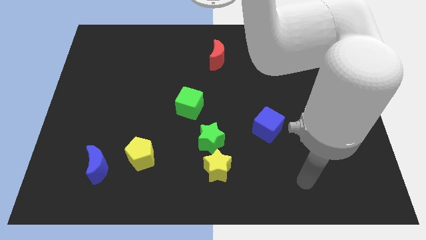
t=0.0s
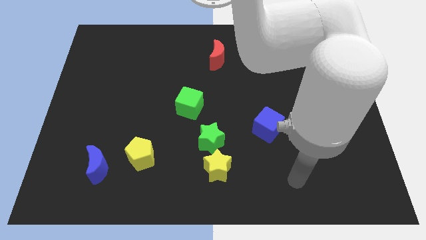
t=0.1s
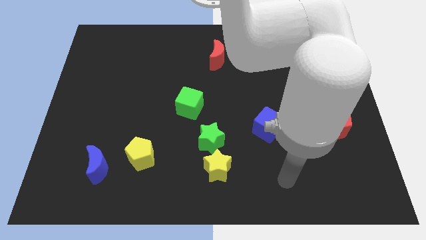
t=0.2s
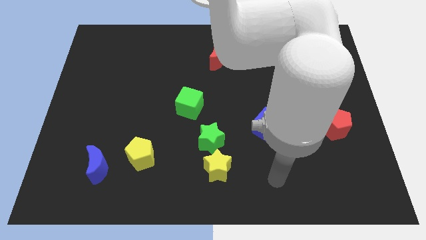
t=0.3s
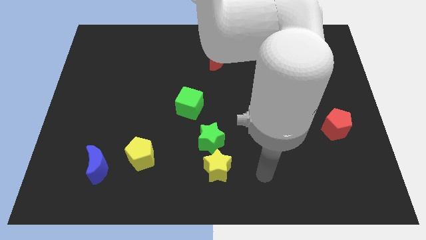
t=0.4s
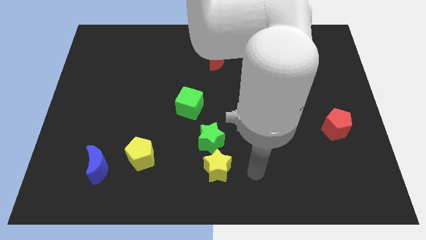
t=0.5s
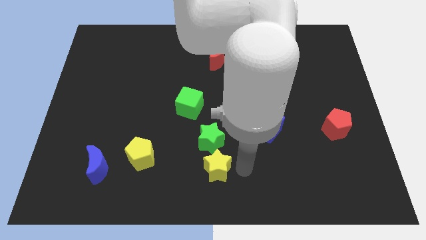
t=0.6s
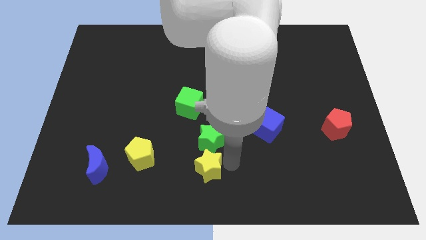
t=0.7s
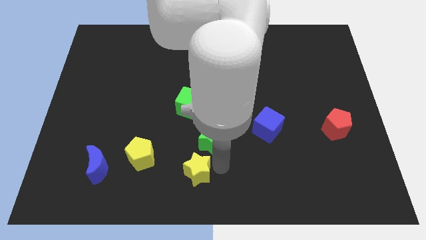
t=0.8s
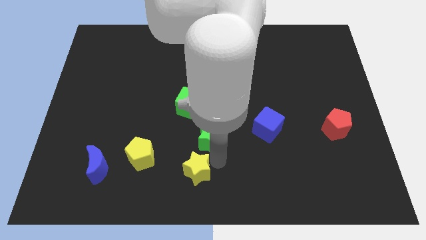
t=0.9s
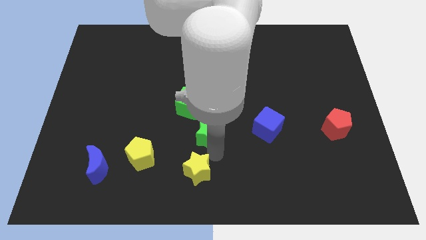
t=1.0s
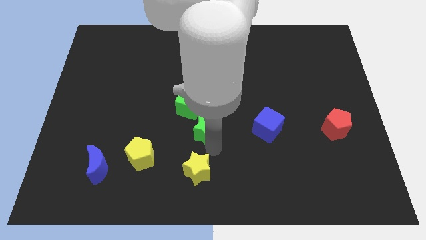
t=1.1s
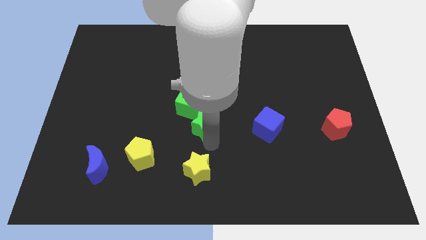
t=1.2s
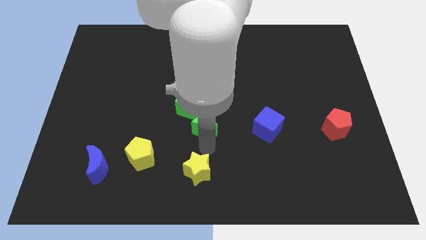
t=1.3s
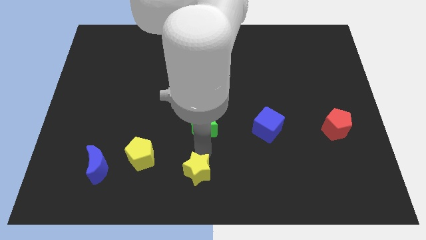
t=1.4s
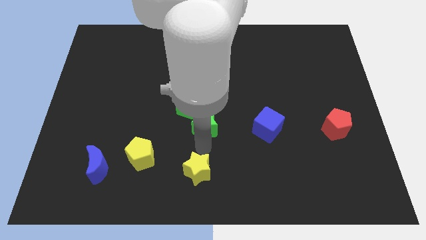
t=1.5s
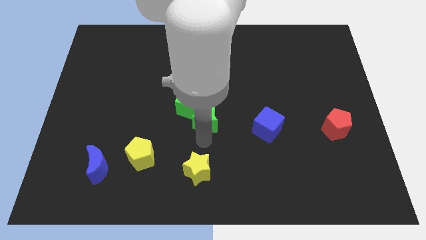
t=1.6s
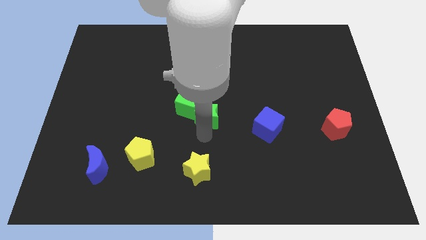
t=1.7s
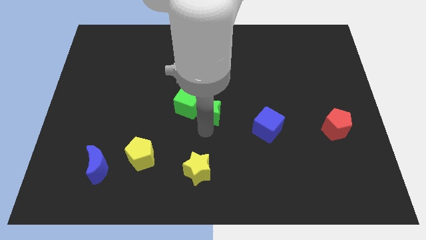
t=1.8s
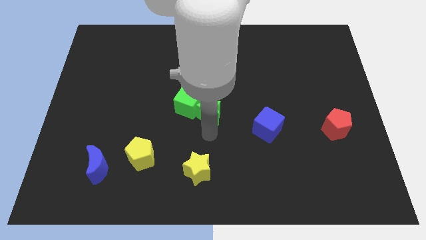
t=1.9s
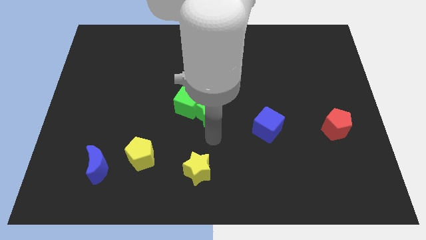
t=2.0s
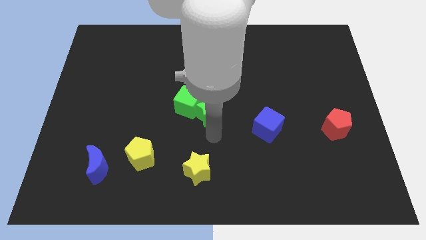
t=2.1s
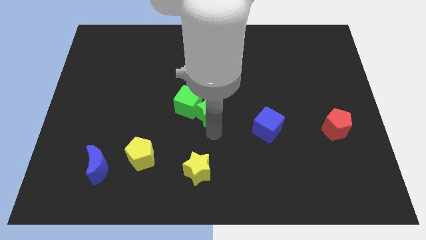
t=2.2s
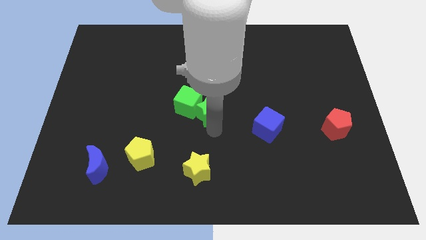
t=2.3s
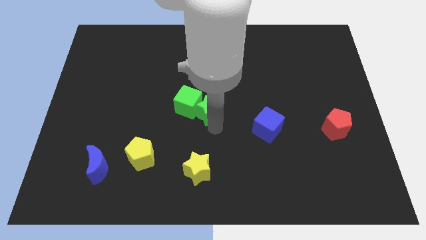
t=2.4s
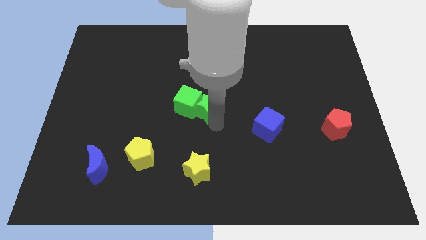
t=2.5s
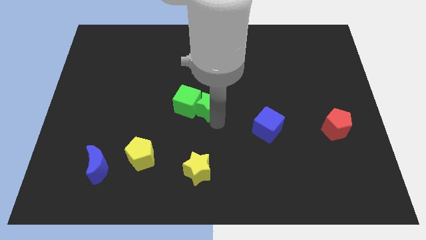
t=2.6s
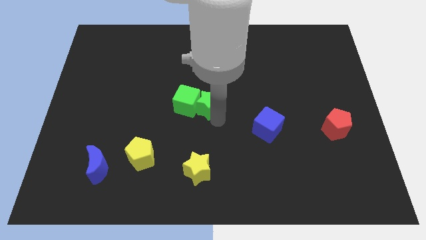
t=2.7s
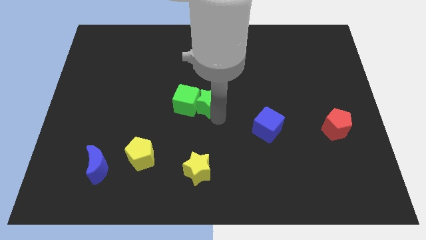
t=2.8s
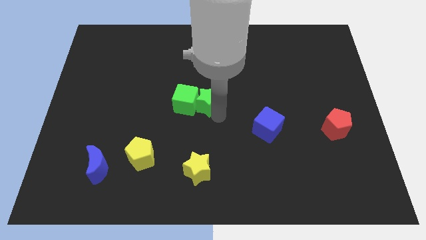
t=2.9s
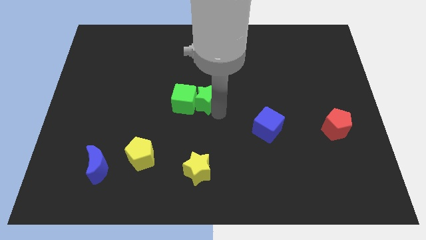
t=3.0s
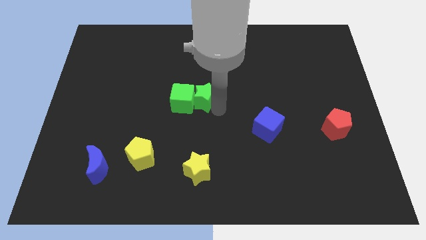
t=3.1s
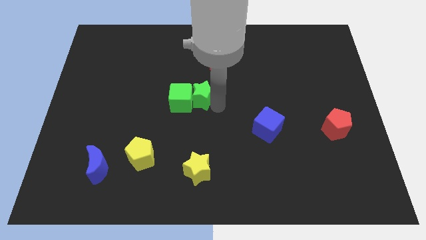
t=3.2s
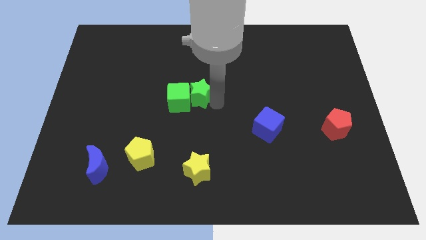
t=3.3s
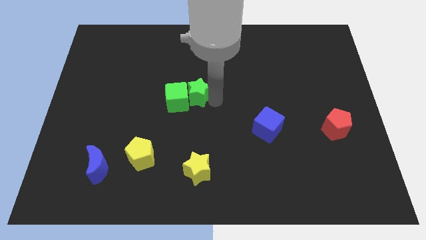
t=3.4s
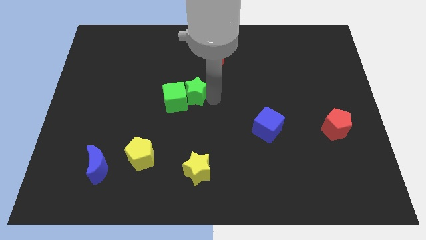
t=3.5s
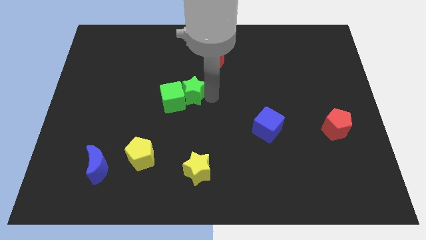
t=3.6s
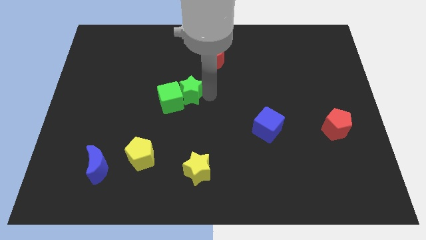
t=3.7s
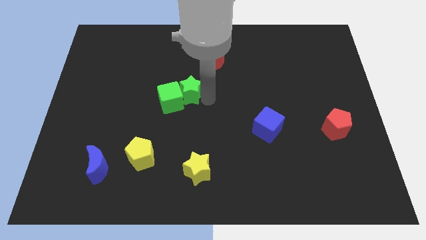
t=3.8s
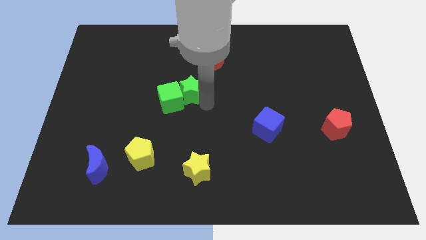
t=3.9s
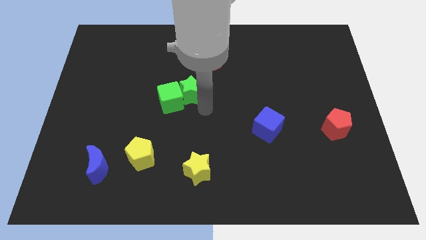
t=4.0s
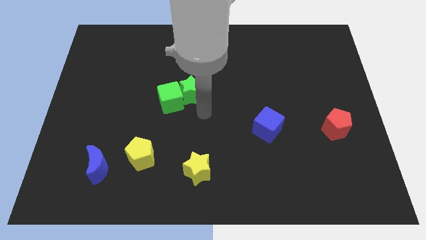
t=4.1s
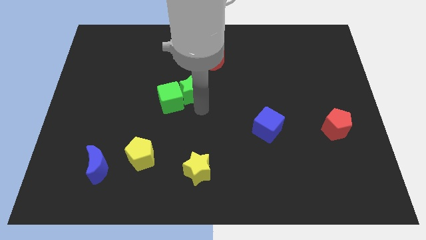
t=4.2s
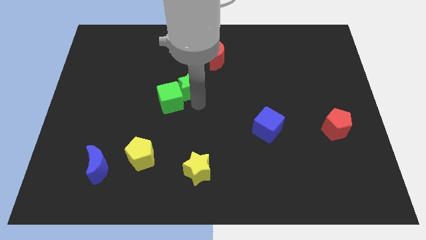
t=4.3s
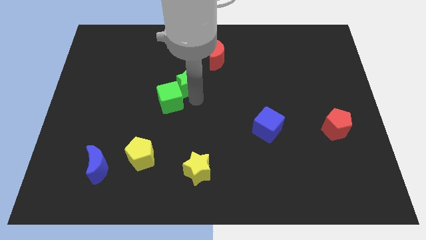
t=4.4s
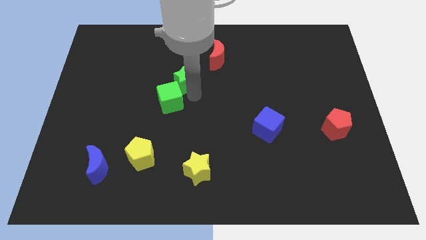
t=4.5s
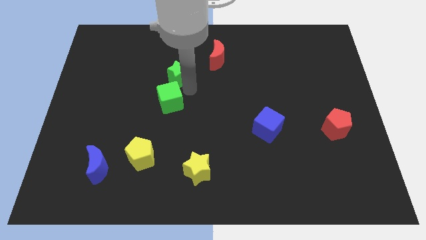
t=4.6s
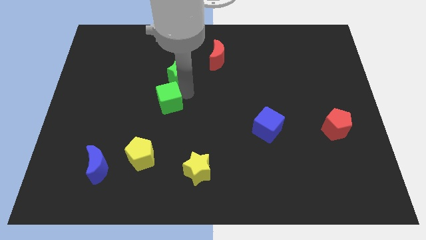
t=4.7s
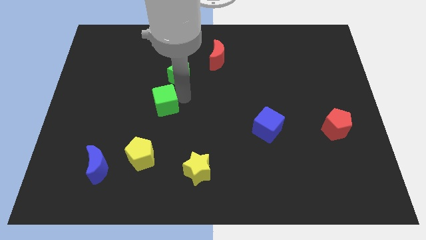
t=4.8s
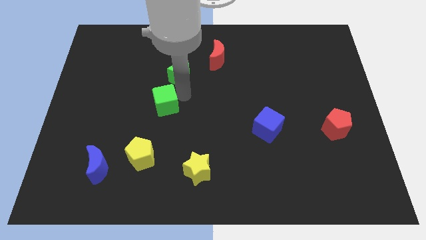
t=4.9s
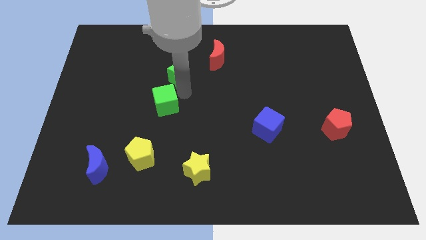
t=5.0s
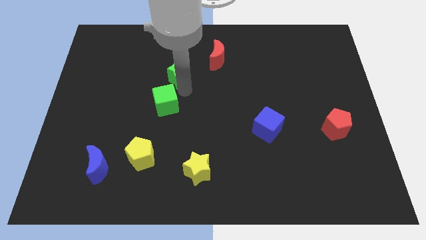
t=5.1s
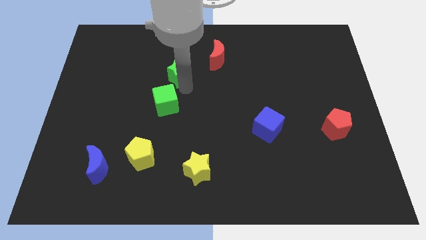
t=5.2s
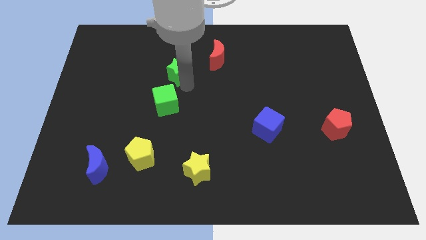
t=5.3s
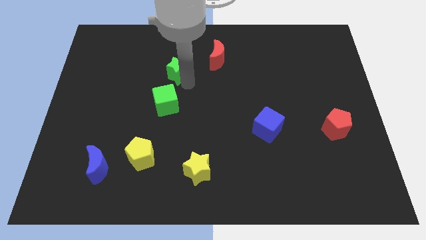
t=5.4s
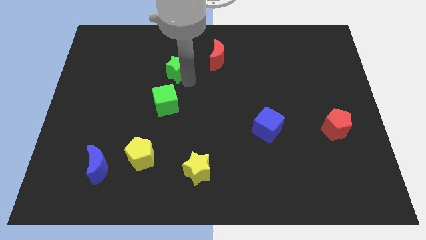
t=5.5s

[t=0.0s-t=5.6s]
put the green star just left of the red moon

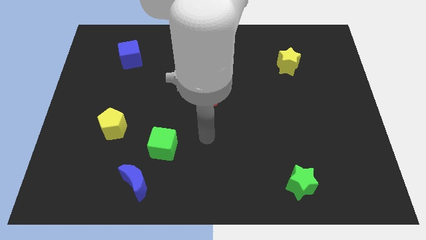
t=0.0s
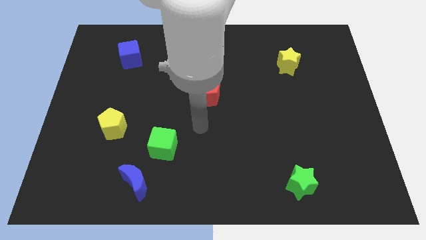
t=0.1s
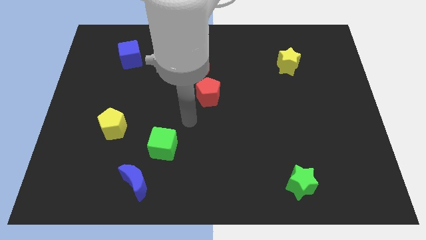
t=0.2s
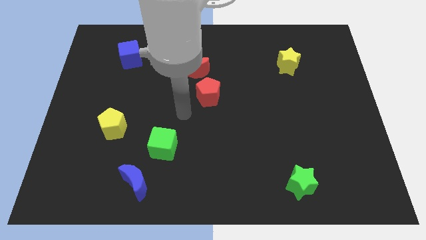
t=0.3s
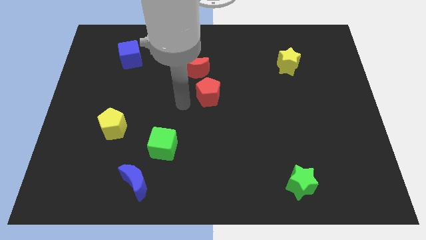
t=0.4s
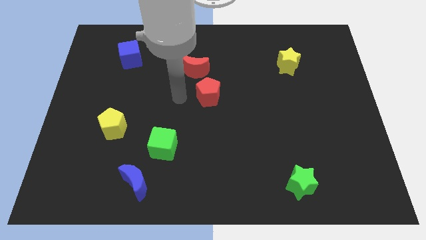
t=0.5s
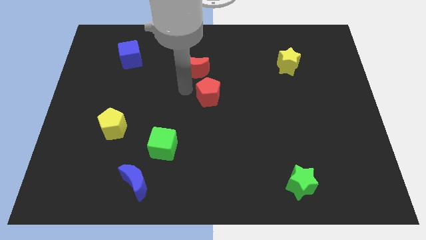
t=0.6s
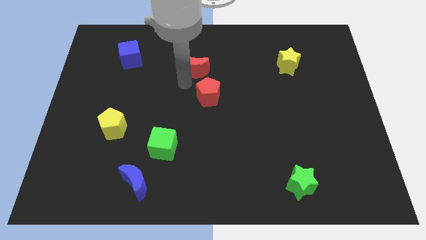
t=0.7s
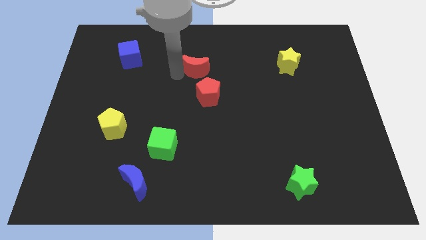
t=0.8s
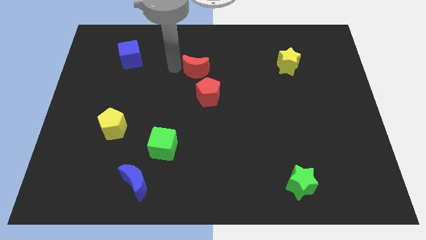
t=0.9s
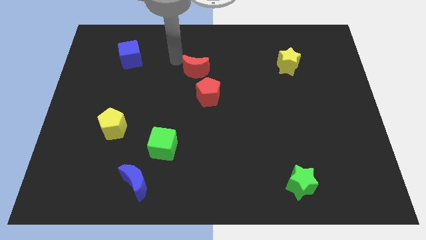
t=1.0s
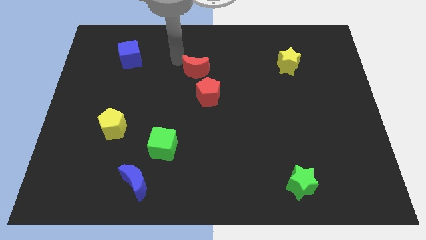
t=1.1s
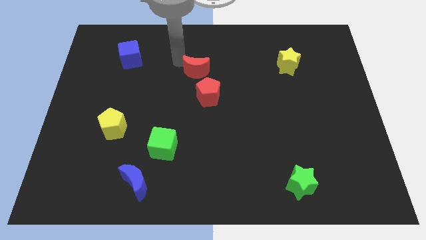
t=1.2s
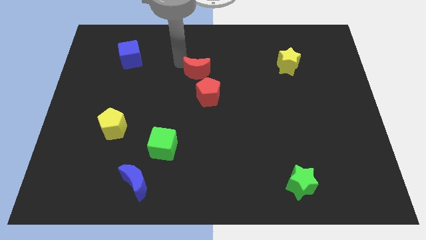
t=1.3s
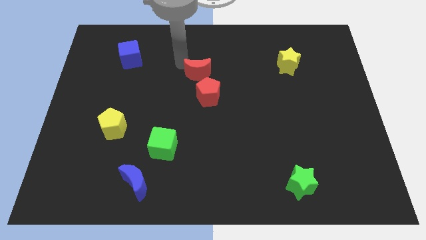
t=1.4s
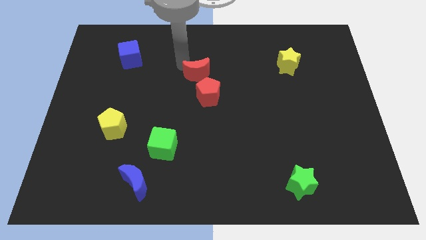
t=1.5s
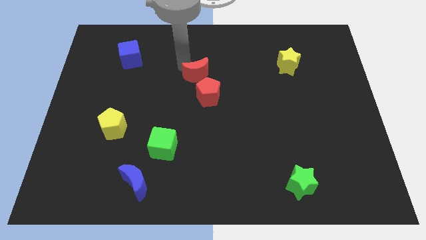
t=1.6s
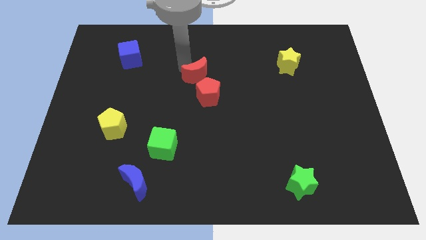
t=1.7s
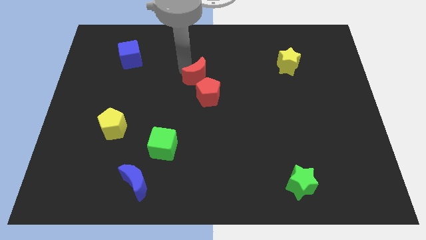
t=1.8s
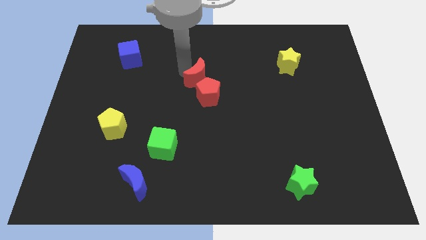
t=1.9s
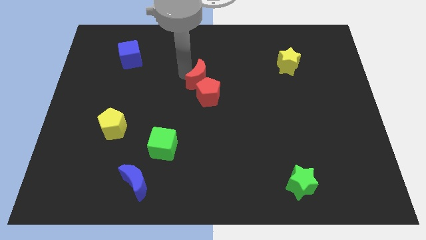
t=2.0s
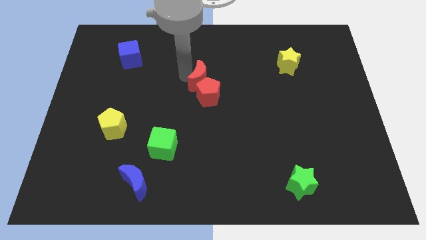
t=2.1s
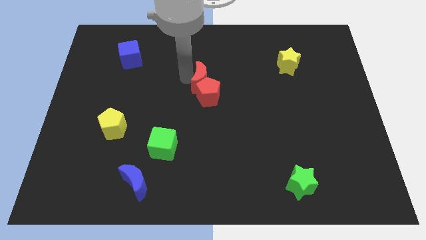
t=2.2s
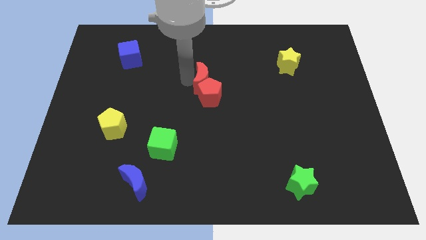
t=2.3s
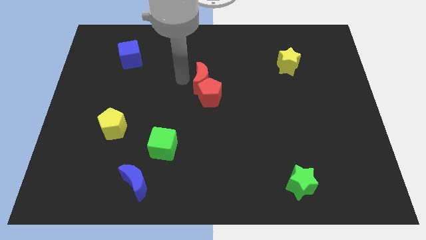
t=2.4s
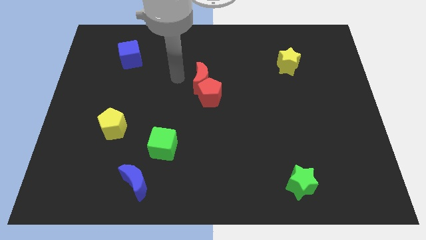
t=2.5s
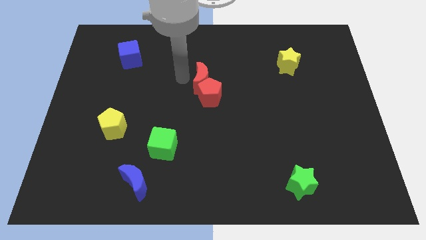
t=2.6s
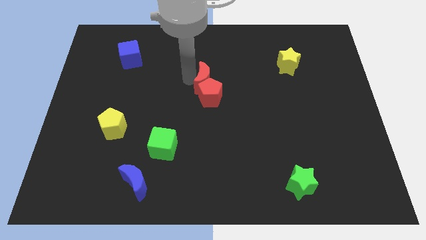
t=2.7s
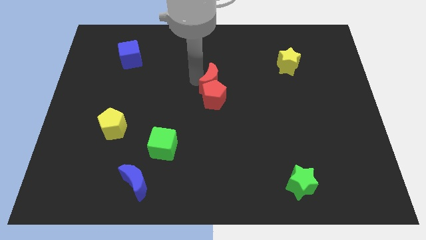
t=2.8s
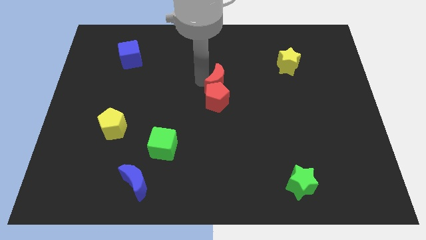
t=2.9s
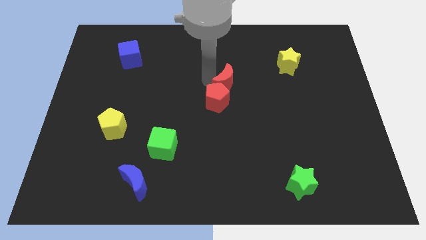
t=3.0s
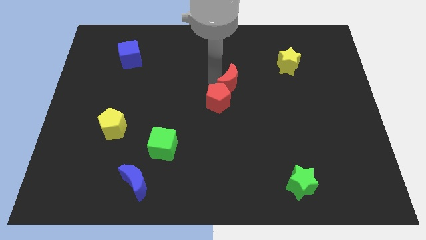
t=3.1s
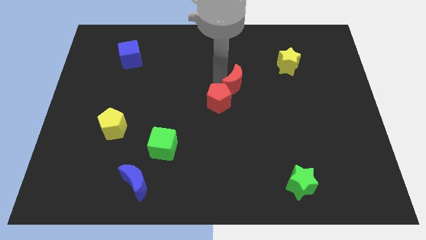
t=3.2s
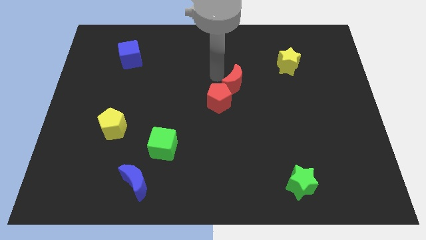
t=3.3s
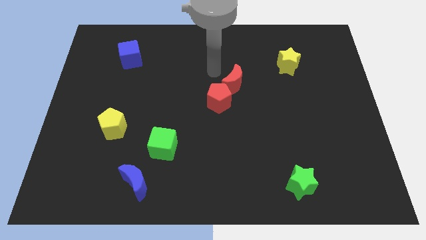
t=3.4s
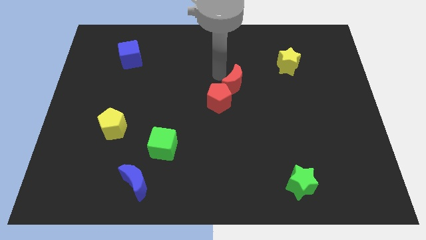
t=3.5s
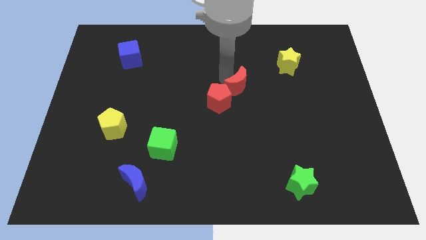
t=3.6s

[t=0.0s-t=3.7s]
push the red moon right of the red pentagon
